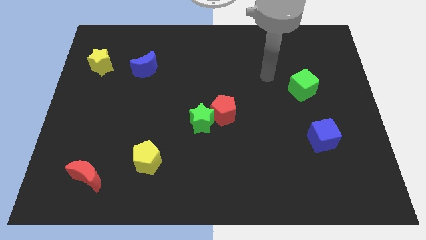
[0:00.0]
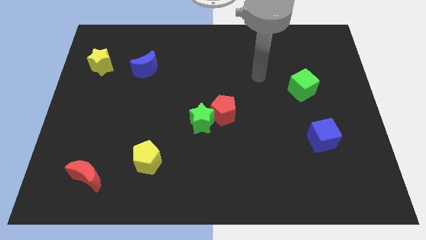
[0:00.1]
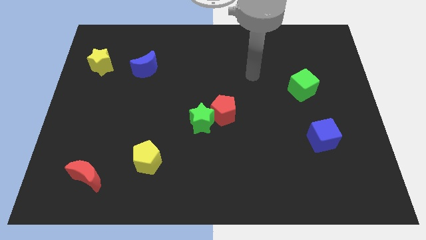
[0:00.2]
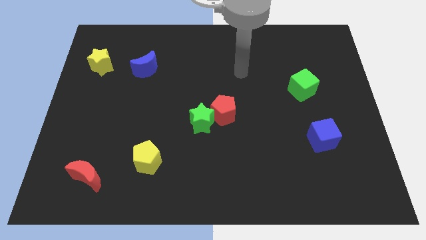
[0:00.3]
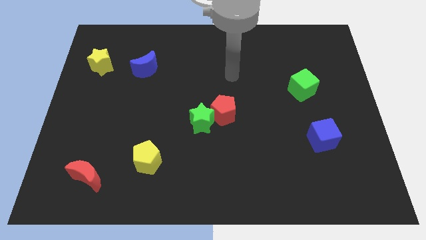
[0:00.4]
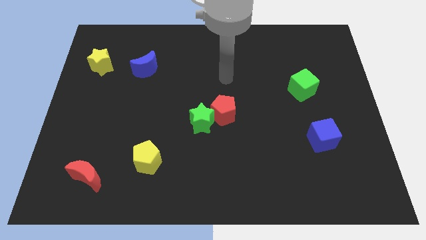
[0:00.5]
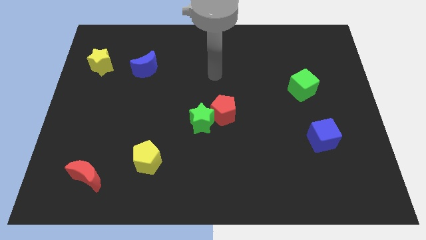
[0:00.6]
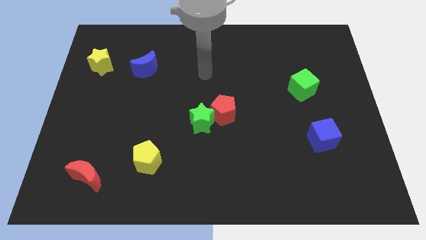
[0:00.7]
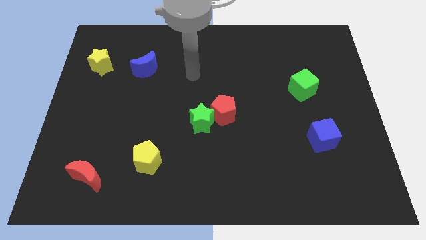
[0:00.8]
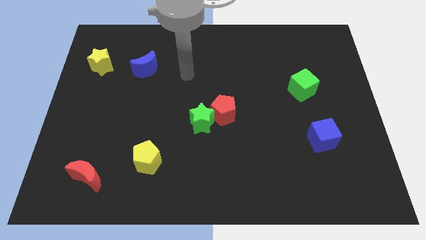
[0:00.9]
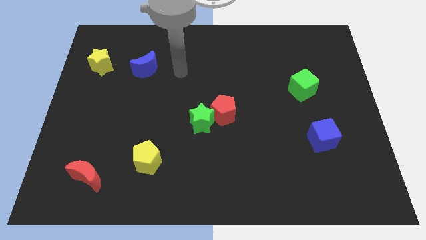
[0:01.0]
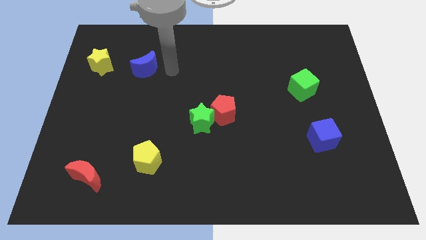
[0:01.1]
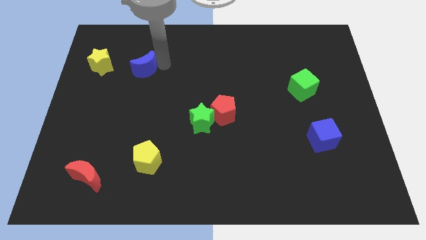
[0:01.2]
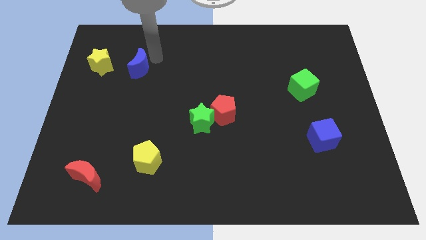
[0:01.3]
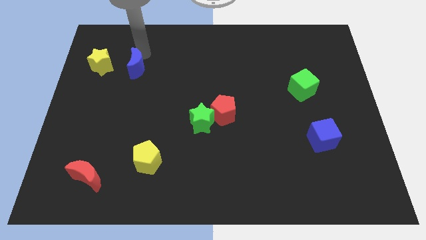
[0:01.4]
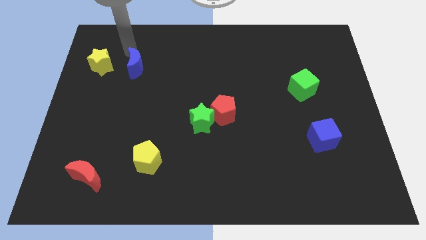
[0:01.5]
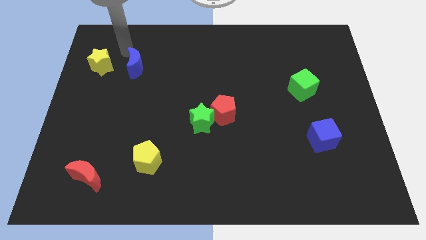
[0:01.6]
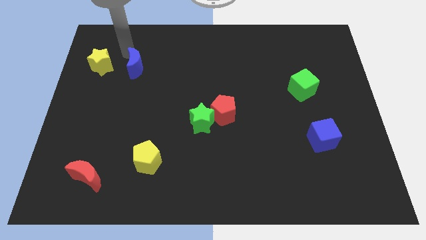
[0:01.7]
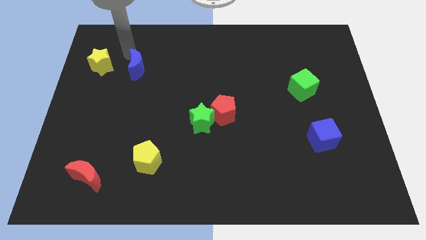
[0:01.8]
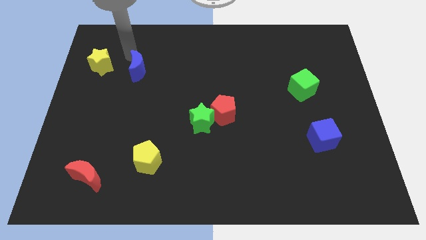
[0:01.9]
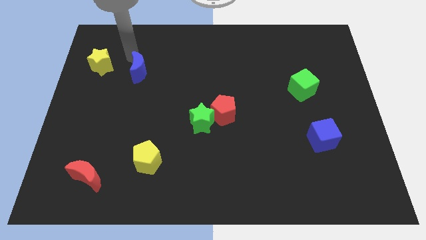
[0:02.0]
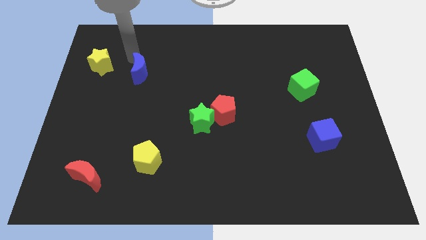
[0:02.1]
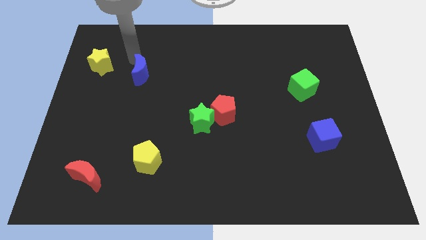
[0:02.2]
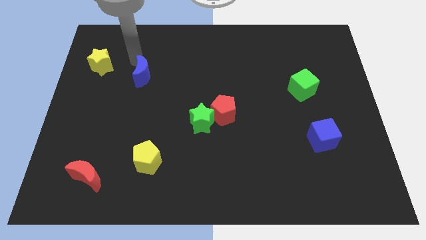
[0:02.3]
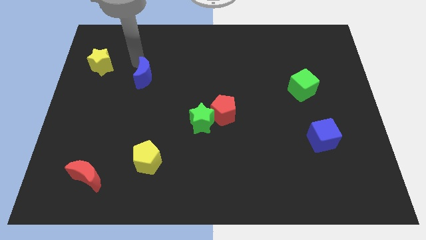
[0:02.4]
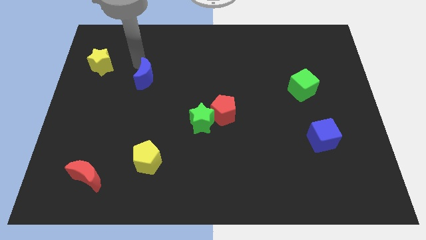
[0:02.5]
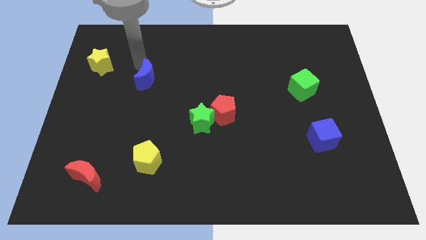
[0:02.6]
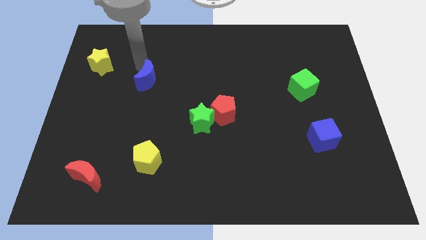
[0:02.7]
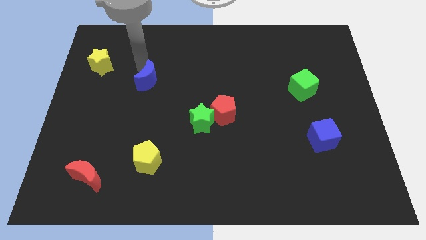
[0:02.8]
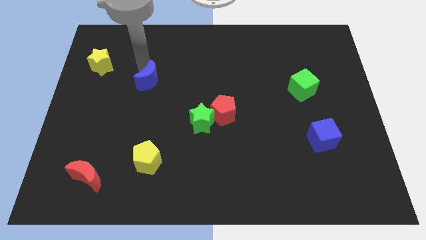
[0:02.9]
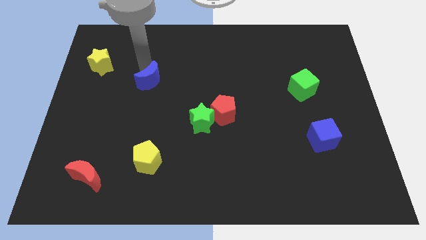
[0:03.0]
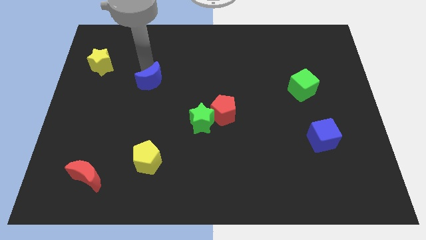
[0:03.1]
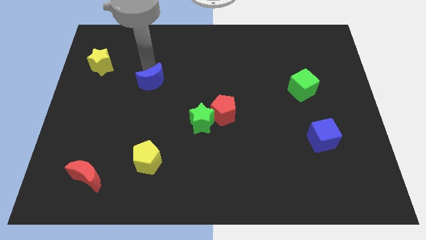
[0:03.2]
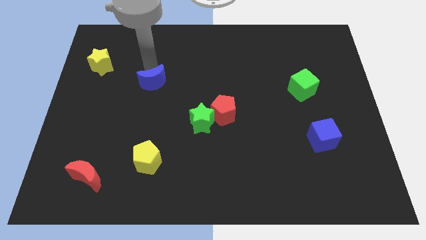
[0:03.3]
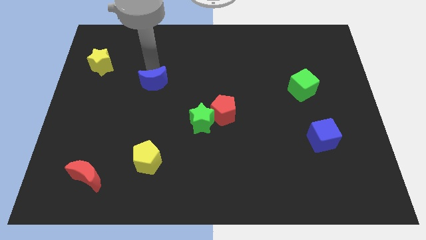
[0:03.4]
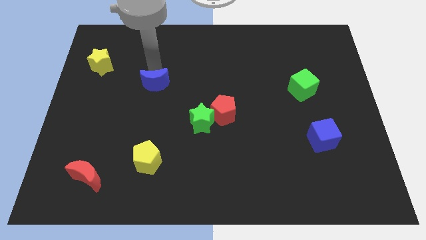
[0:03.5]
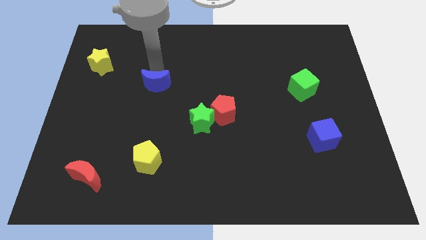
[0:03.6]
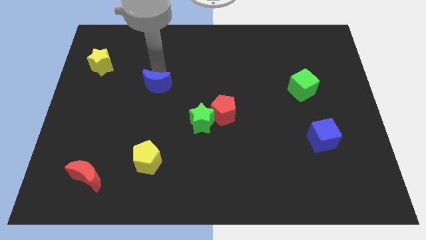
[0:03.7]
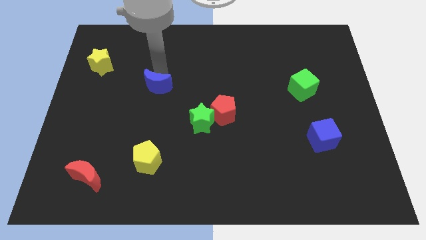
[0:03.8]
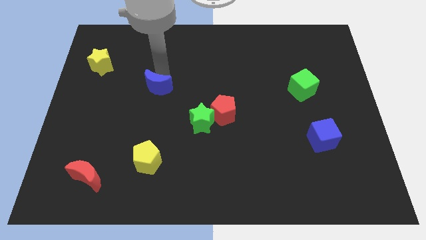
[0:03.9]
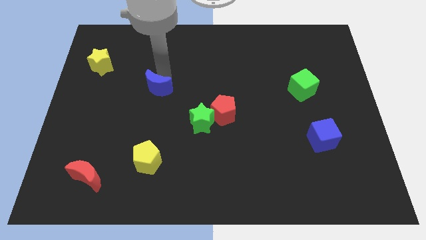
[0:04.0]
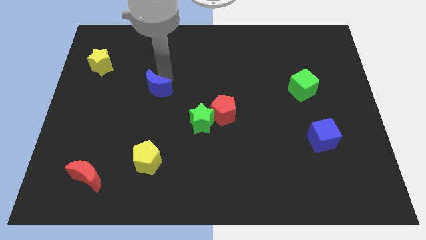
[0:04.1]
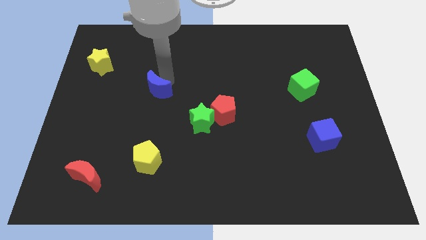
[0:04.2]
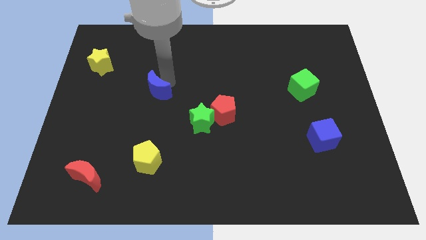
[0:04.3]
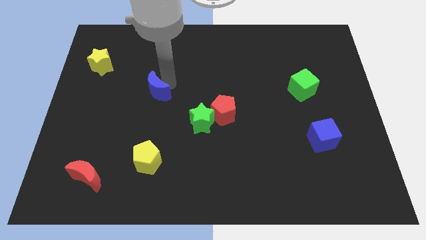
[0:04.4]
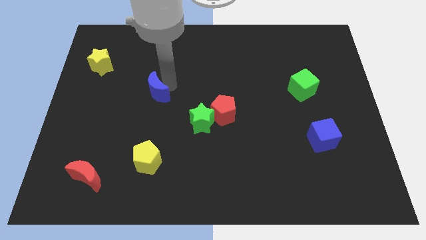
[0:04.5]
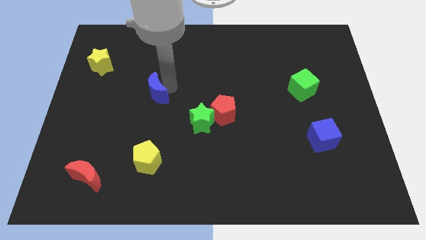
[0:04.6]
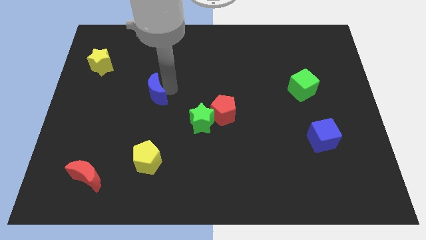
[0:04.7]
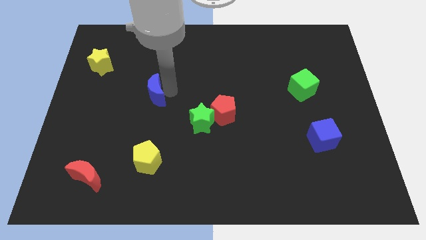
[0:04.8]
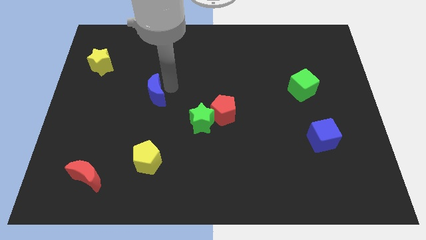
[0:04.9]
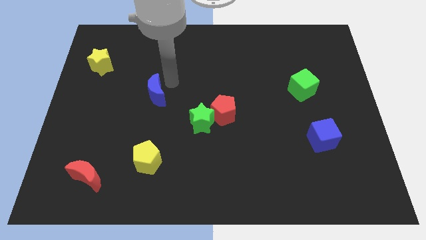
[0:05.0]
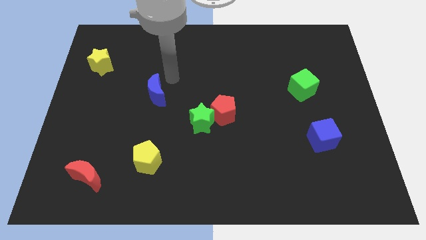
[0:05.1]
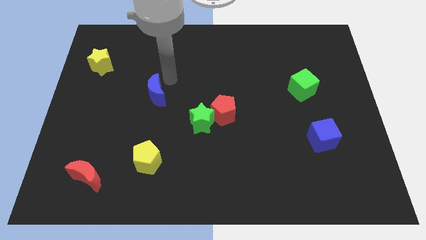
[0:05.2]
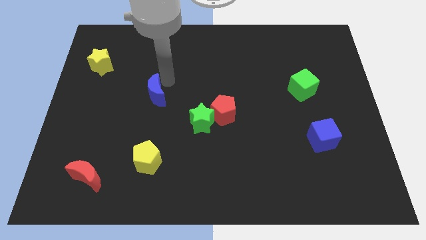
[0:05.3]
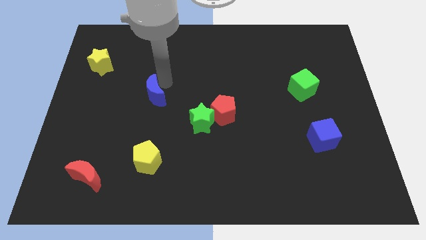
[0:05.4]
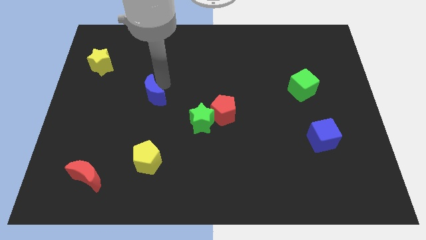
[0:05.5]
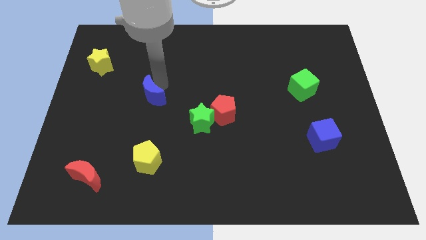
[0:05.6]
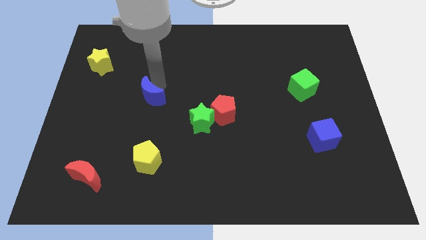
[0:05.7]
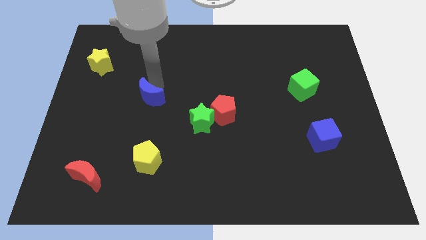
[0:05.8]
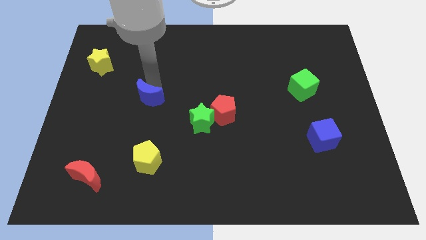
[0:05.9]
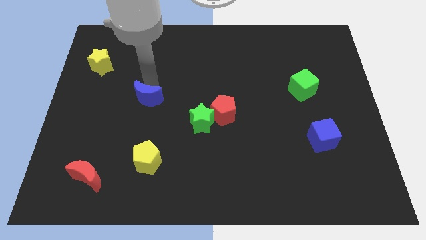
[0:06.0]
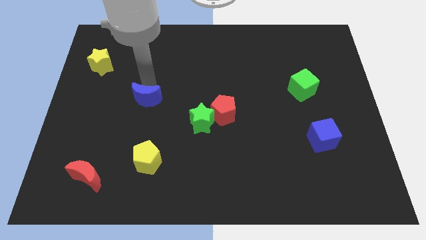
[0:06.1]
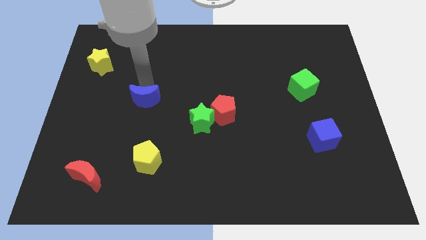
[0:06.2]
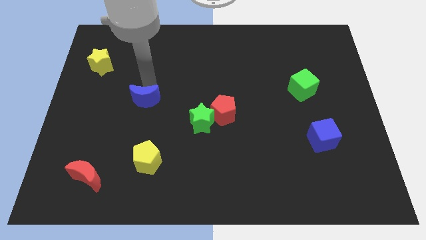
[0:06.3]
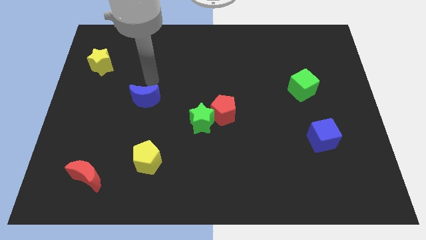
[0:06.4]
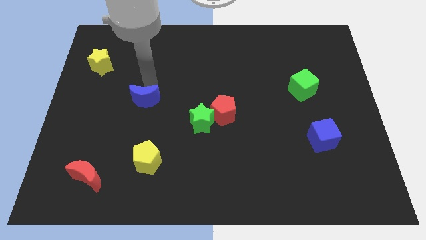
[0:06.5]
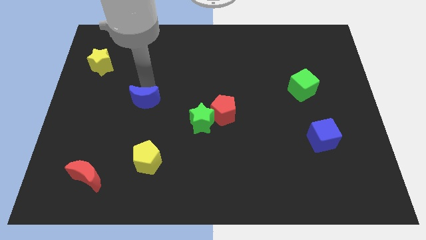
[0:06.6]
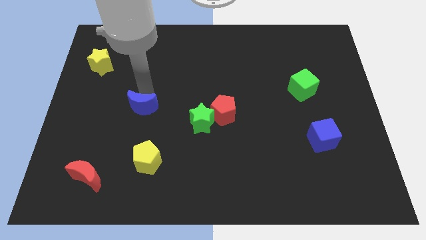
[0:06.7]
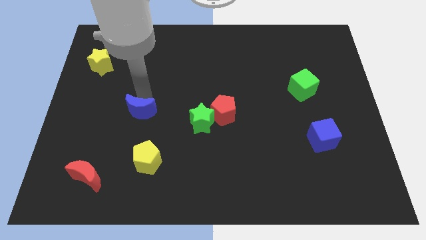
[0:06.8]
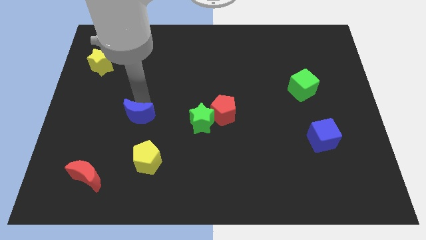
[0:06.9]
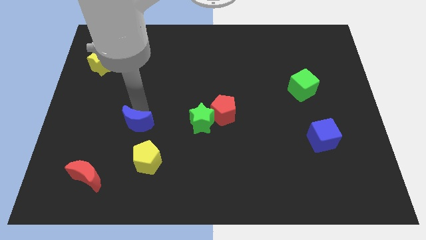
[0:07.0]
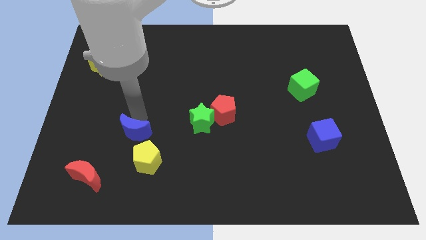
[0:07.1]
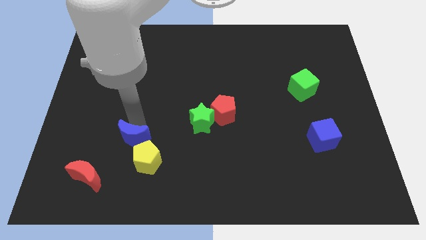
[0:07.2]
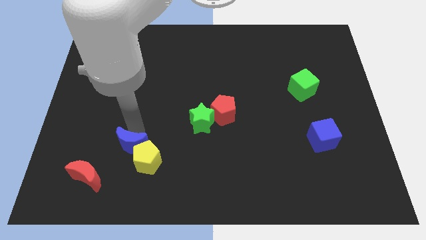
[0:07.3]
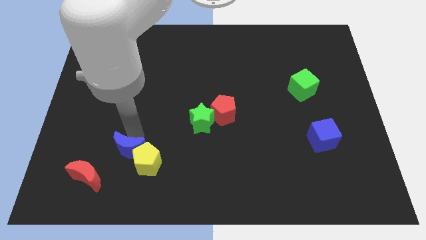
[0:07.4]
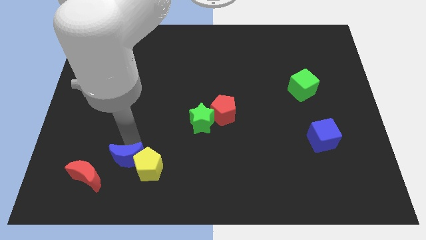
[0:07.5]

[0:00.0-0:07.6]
put the blue moon just right of the red moon

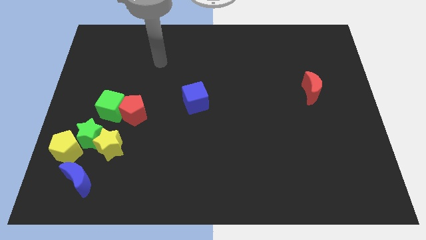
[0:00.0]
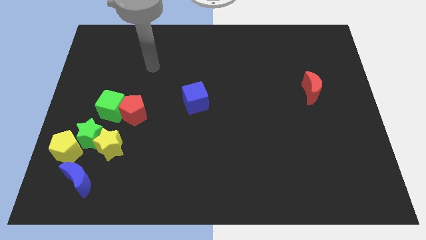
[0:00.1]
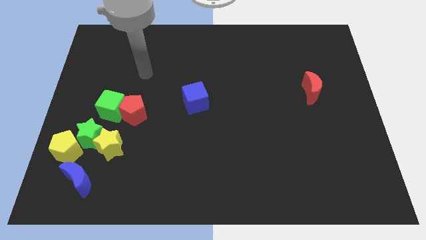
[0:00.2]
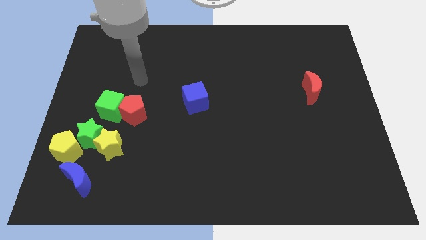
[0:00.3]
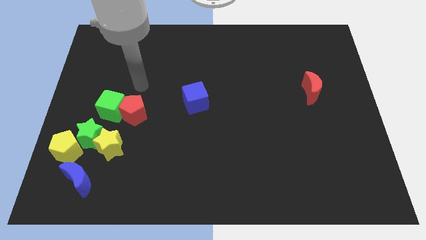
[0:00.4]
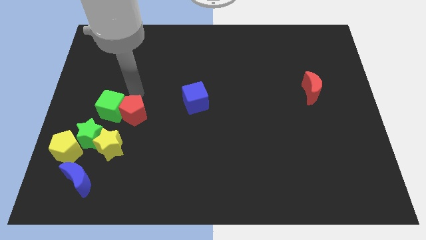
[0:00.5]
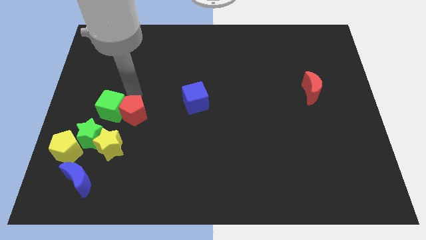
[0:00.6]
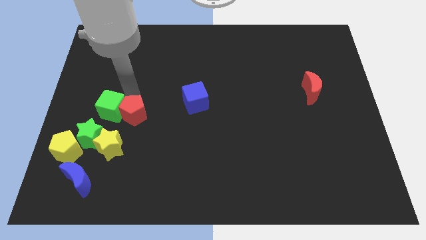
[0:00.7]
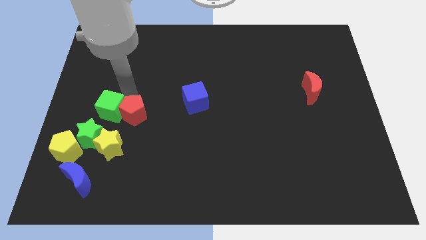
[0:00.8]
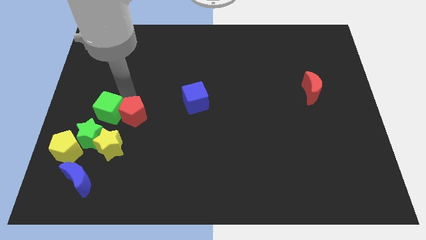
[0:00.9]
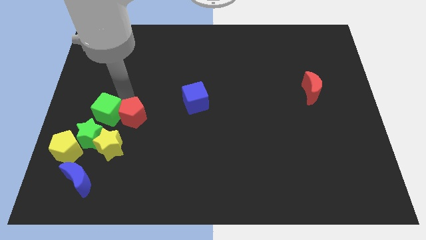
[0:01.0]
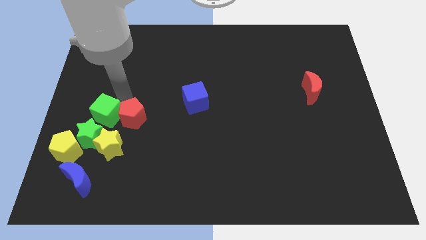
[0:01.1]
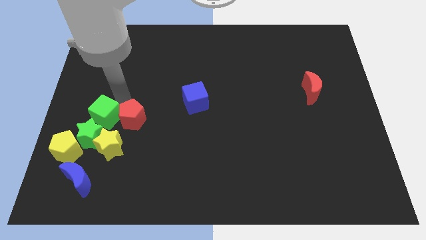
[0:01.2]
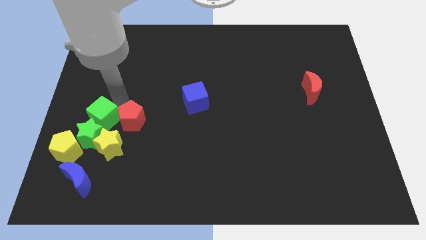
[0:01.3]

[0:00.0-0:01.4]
move the green cube to the top of the blue moon
